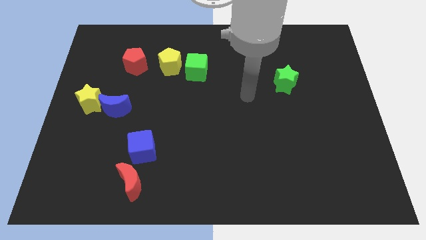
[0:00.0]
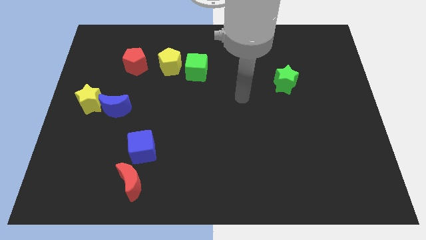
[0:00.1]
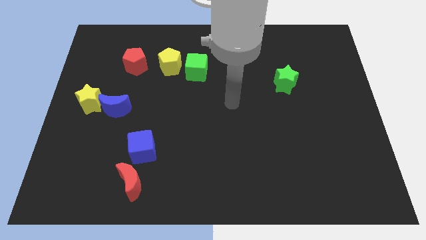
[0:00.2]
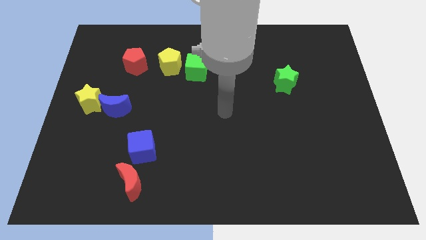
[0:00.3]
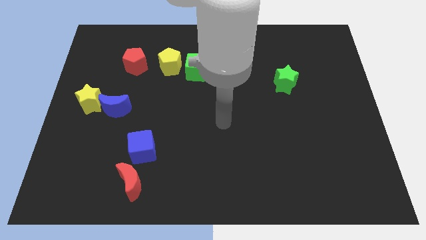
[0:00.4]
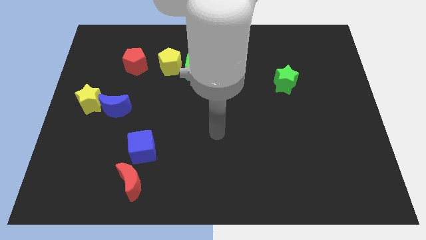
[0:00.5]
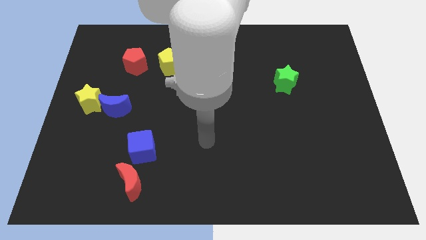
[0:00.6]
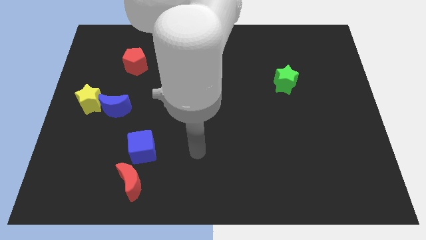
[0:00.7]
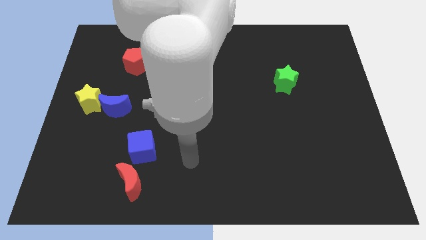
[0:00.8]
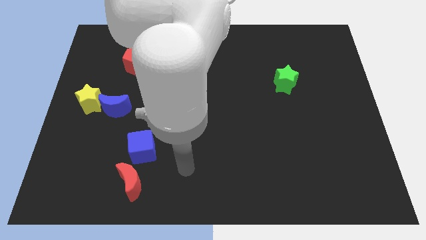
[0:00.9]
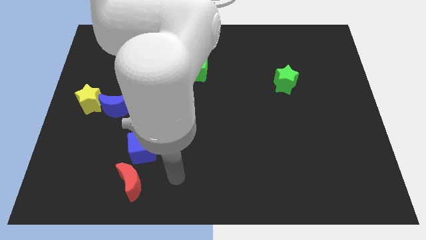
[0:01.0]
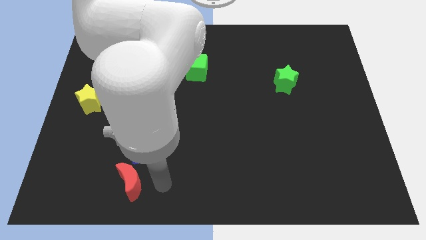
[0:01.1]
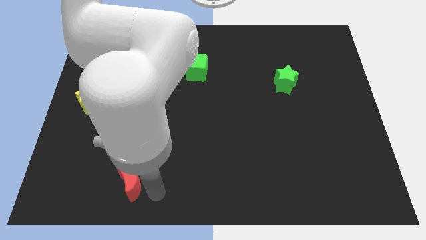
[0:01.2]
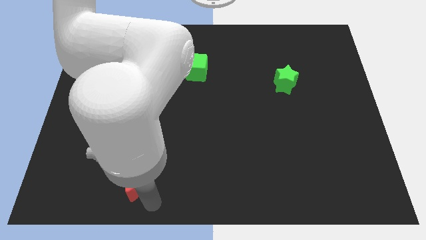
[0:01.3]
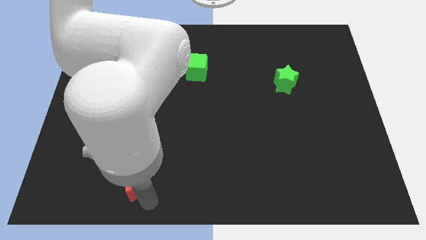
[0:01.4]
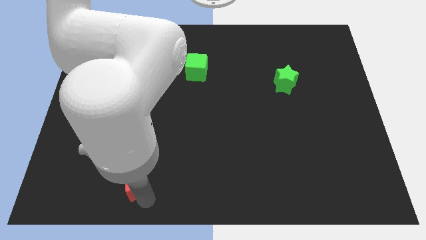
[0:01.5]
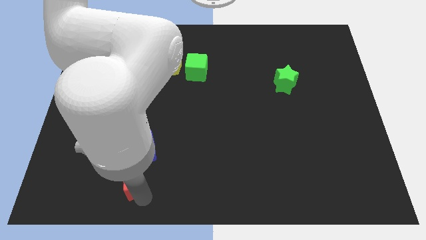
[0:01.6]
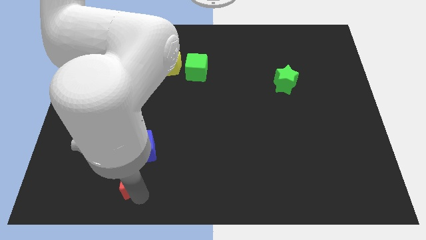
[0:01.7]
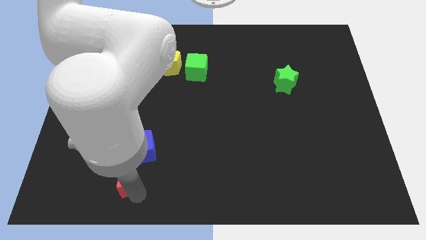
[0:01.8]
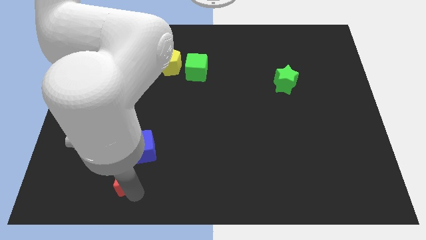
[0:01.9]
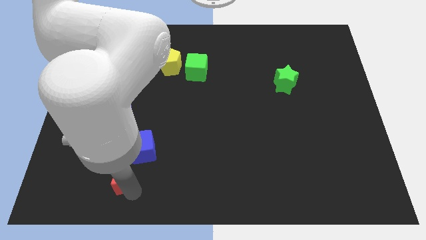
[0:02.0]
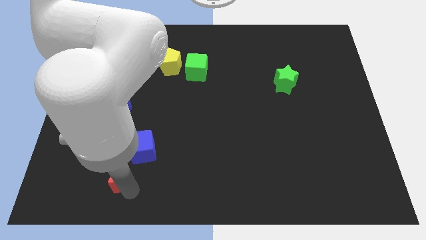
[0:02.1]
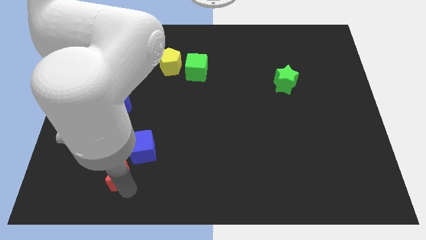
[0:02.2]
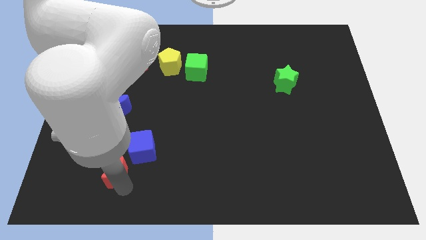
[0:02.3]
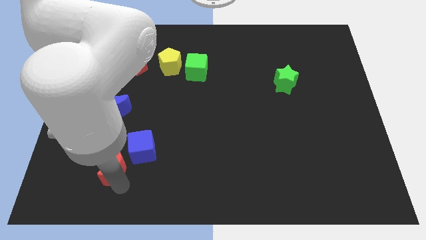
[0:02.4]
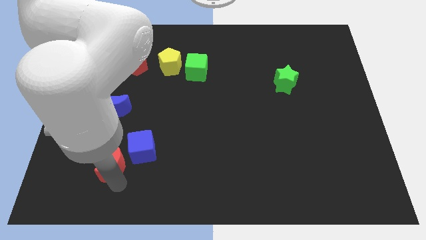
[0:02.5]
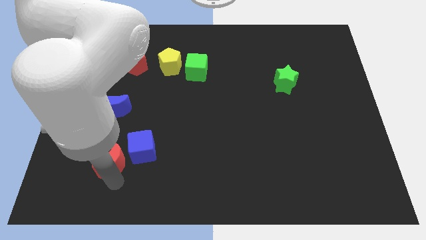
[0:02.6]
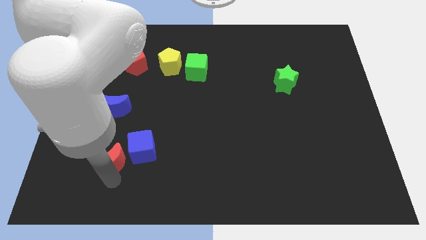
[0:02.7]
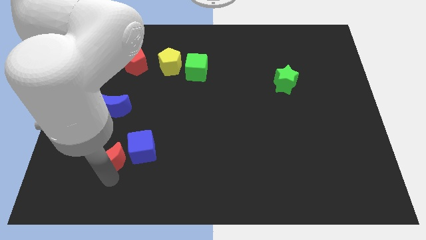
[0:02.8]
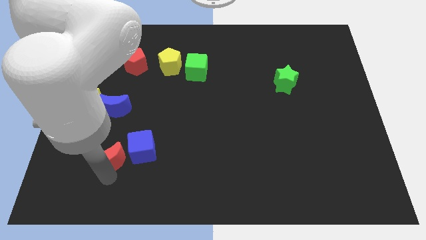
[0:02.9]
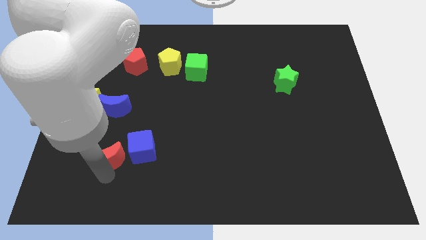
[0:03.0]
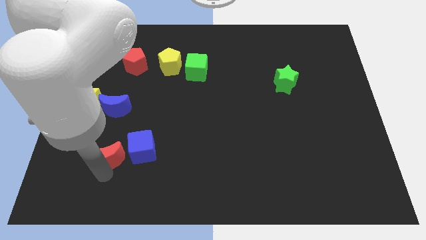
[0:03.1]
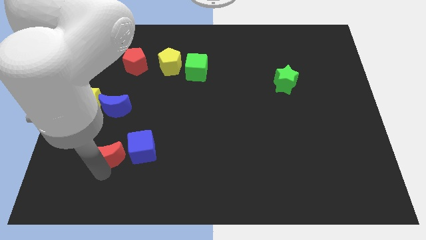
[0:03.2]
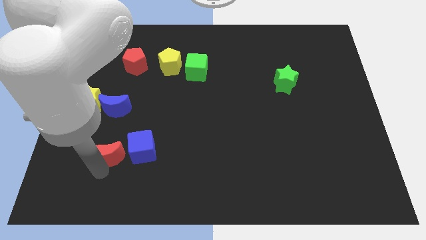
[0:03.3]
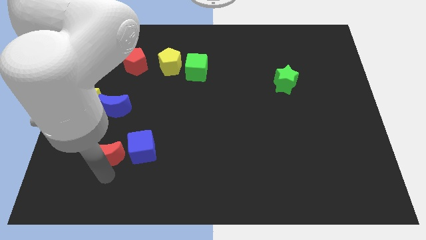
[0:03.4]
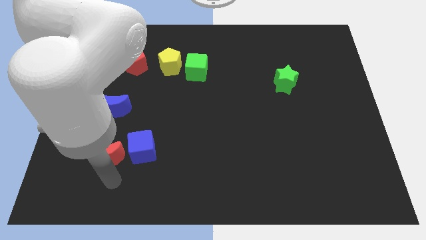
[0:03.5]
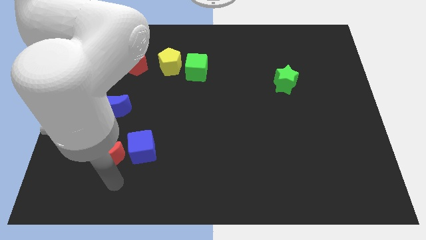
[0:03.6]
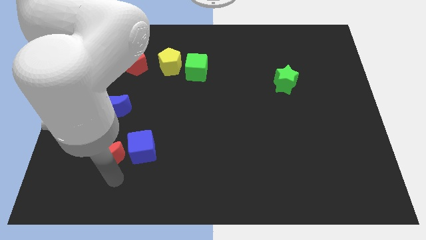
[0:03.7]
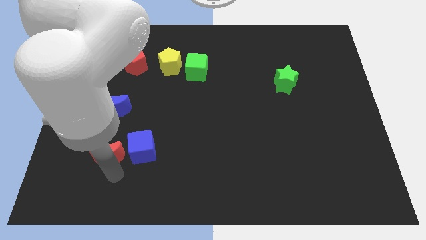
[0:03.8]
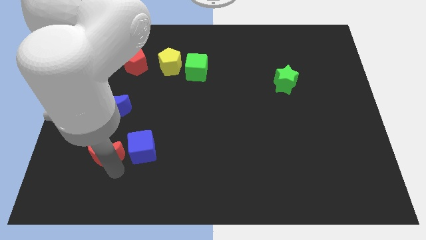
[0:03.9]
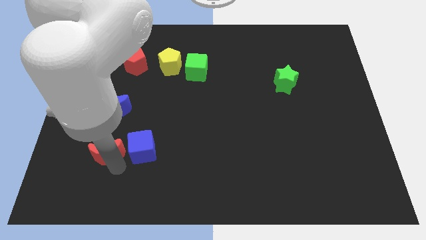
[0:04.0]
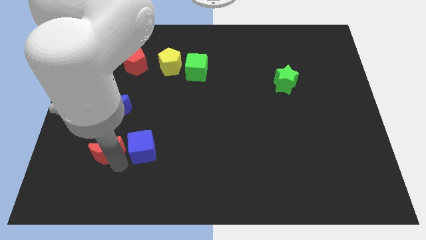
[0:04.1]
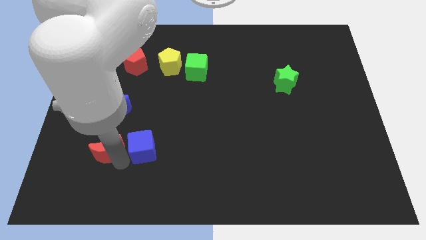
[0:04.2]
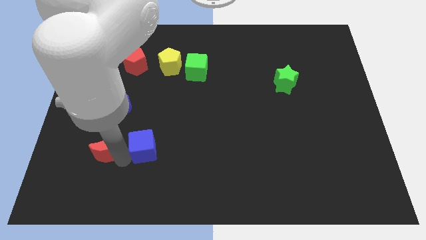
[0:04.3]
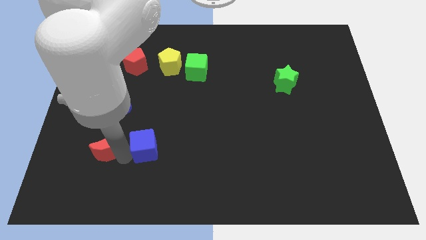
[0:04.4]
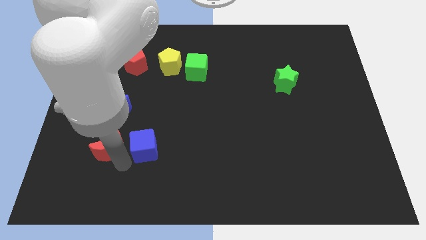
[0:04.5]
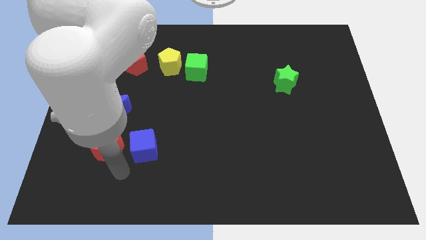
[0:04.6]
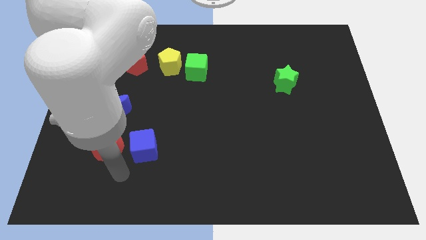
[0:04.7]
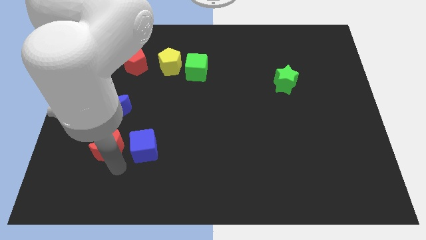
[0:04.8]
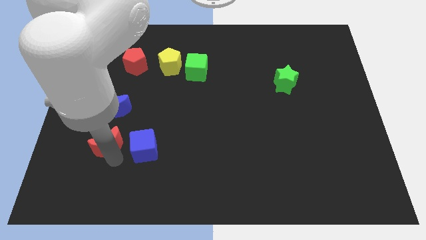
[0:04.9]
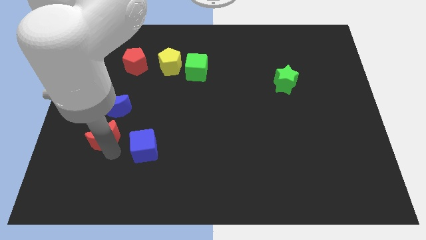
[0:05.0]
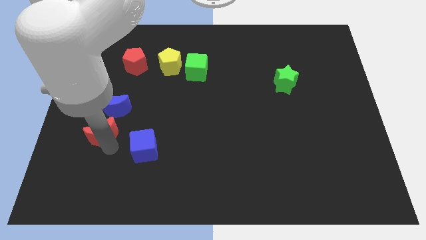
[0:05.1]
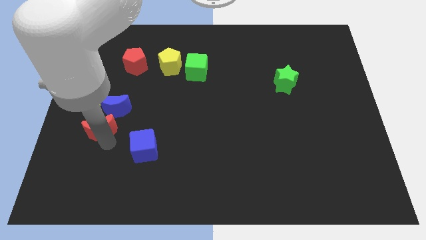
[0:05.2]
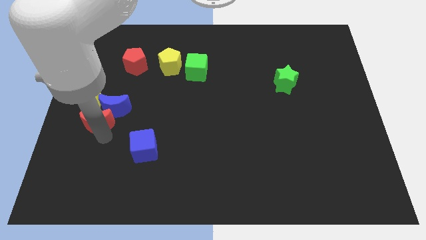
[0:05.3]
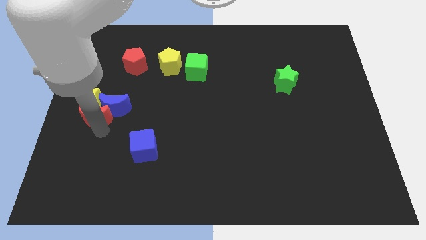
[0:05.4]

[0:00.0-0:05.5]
put the red moon close to the yellow star

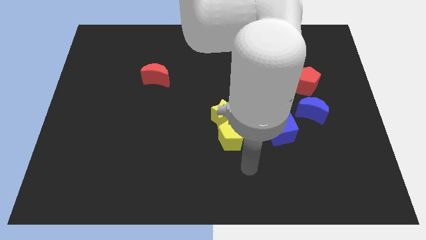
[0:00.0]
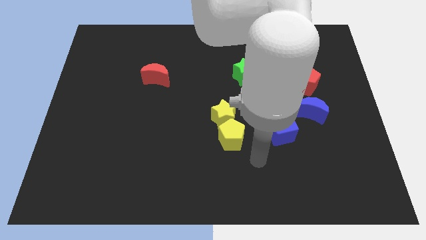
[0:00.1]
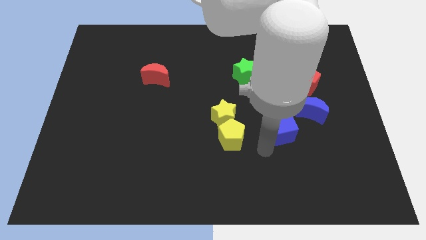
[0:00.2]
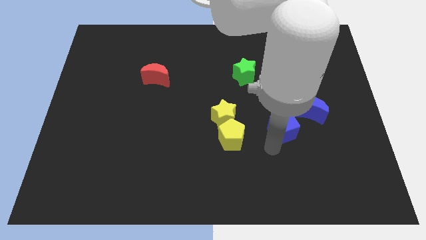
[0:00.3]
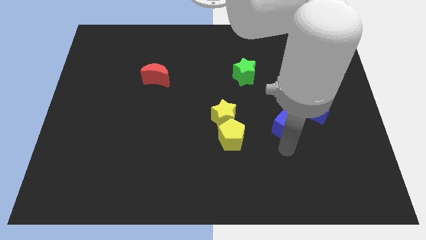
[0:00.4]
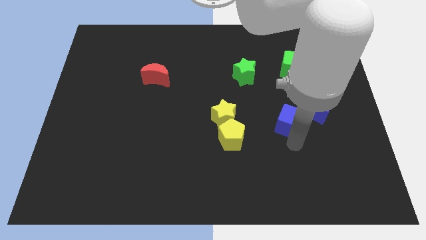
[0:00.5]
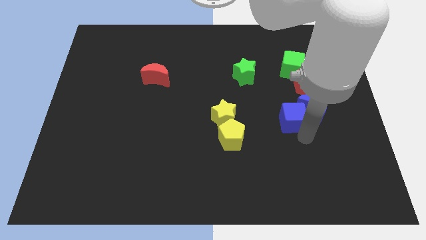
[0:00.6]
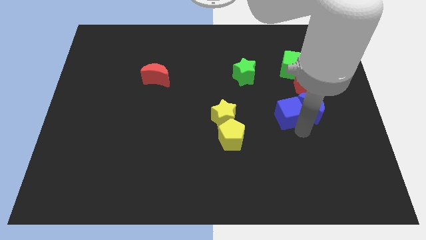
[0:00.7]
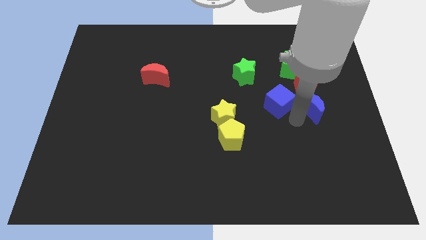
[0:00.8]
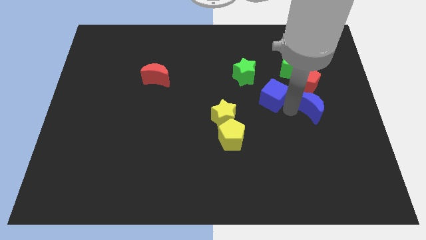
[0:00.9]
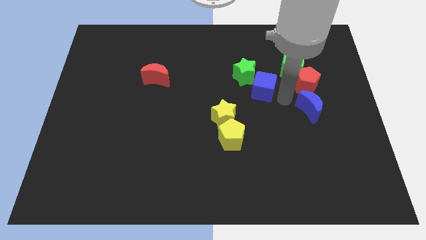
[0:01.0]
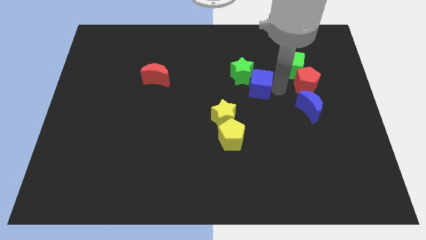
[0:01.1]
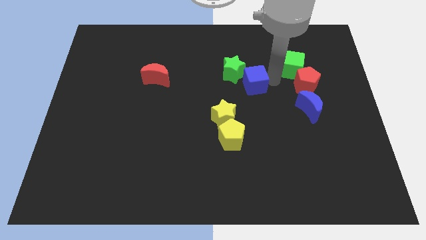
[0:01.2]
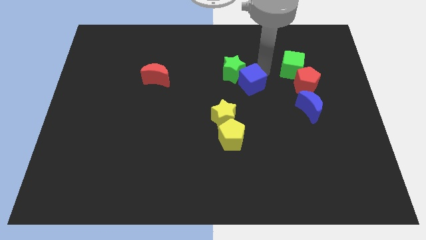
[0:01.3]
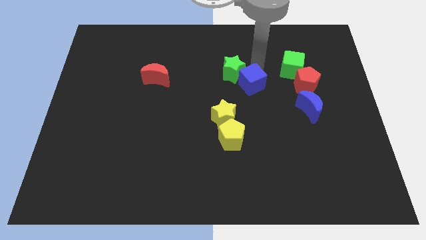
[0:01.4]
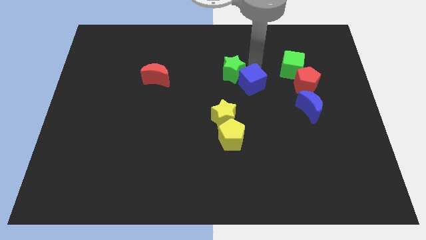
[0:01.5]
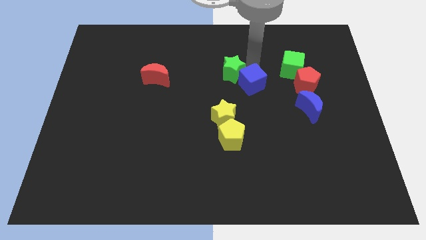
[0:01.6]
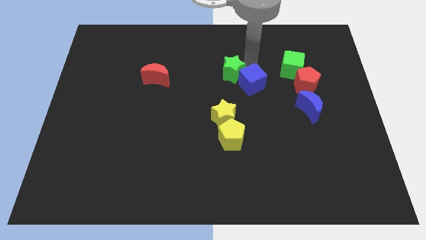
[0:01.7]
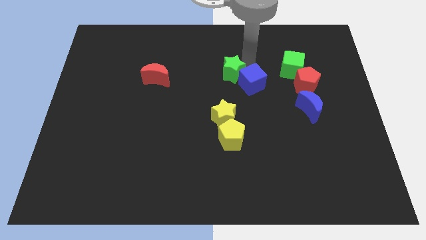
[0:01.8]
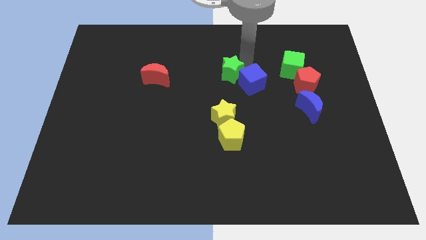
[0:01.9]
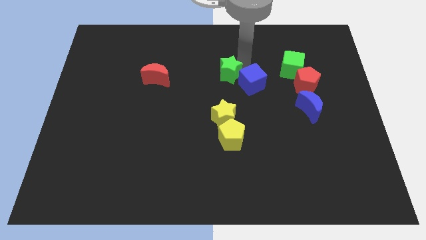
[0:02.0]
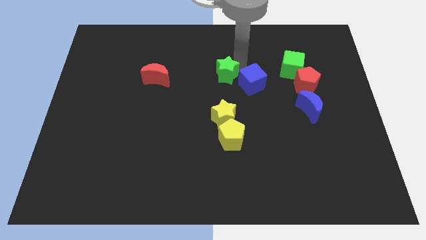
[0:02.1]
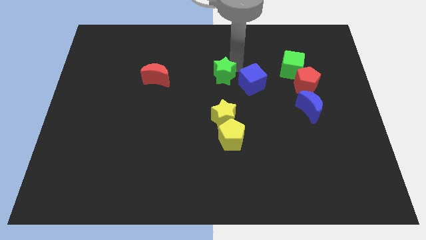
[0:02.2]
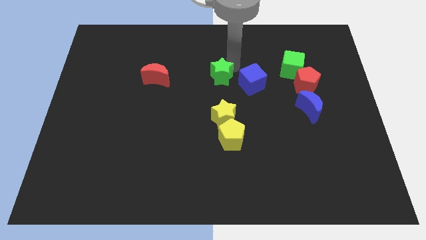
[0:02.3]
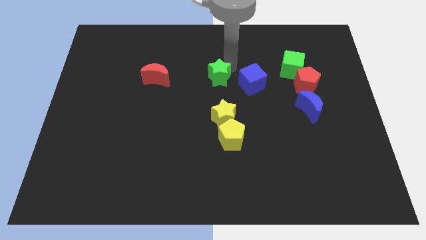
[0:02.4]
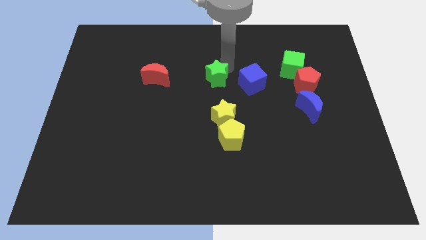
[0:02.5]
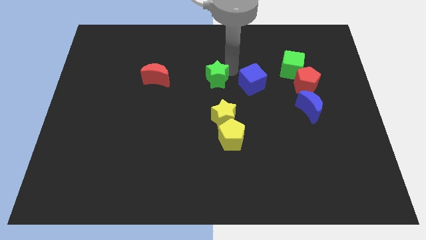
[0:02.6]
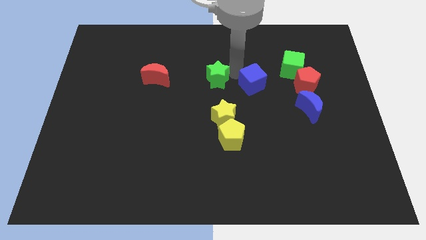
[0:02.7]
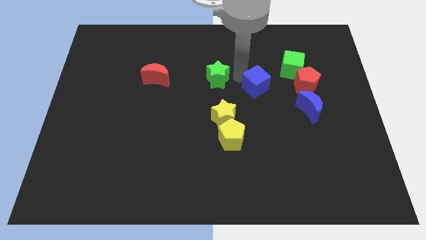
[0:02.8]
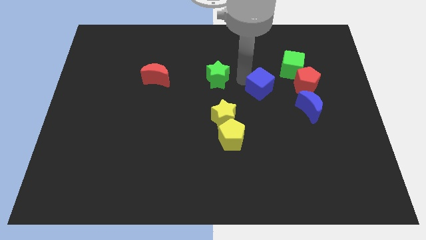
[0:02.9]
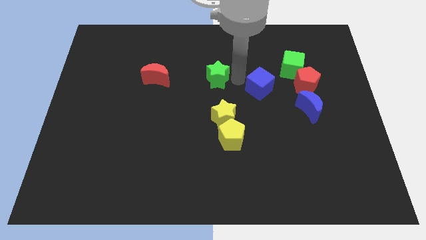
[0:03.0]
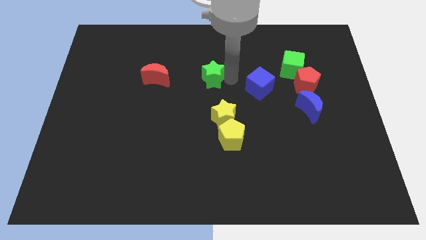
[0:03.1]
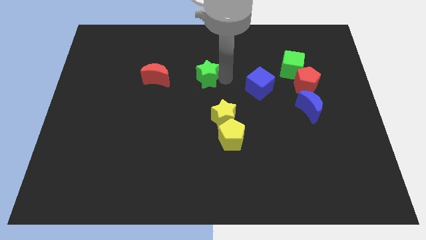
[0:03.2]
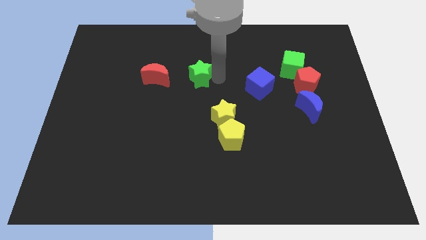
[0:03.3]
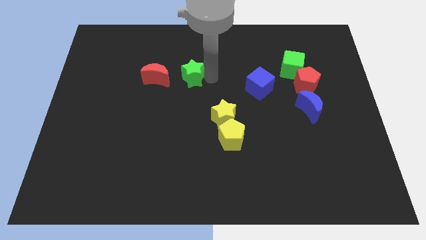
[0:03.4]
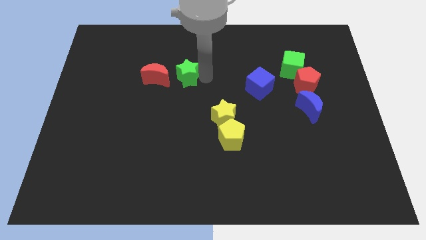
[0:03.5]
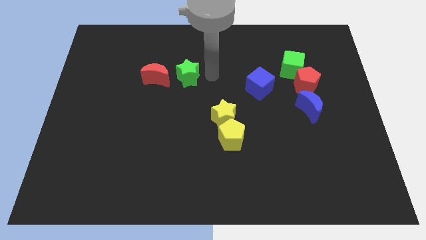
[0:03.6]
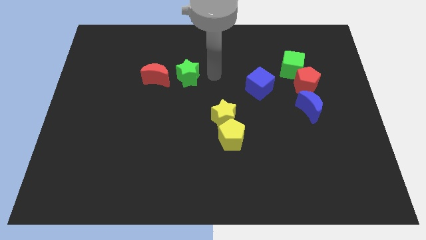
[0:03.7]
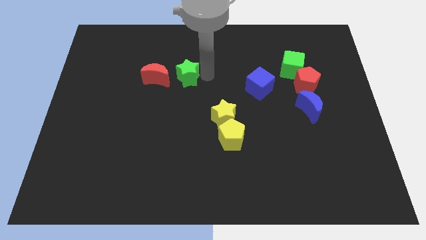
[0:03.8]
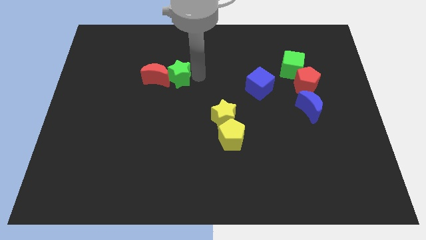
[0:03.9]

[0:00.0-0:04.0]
push the green star to the red moon
